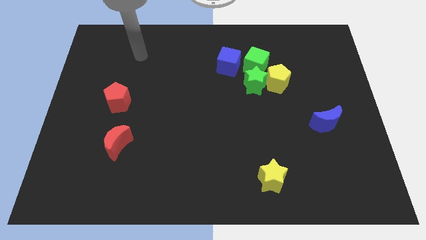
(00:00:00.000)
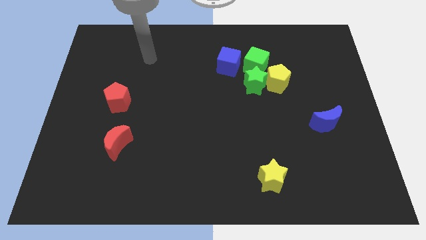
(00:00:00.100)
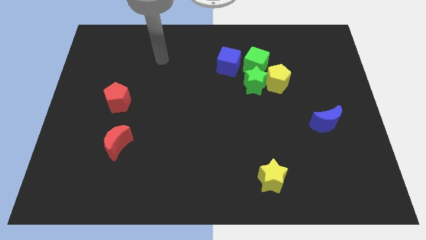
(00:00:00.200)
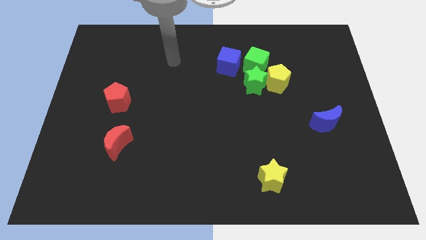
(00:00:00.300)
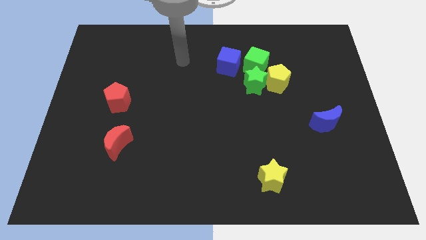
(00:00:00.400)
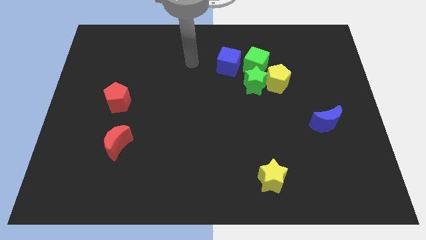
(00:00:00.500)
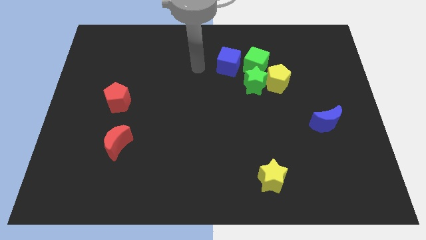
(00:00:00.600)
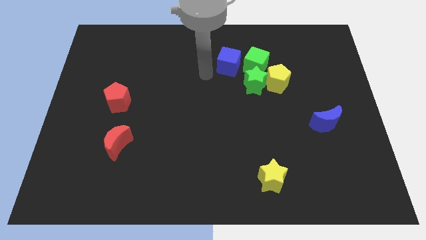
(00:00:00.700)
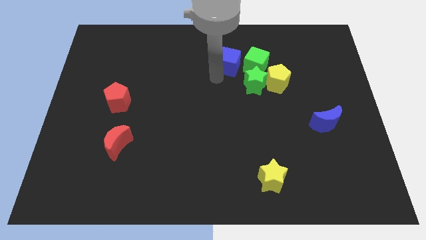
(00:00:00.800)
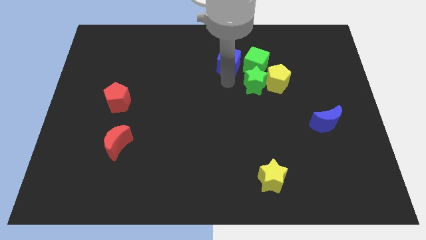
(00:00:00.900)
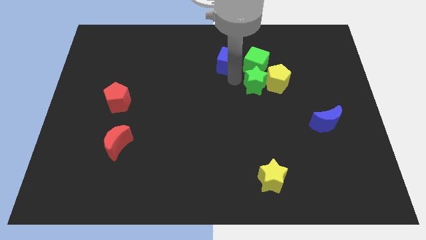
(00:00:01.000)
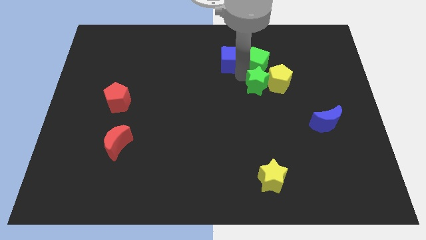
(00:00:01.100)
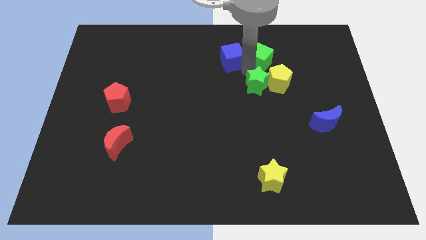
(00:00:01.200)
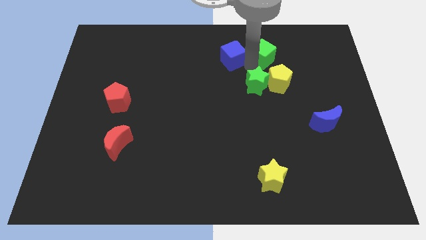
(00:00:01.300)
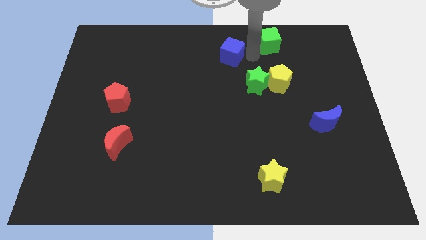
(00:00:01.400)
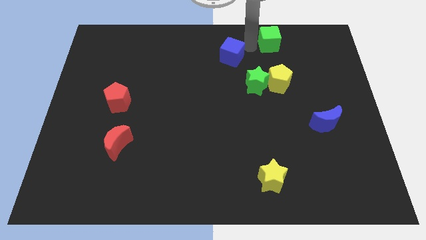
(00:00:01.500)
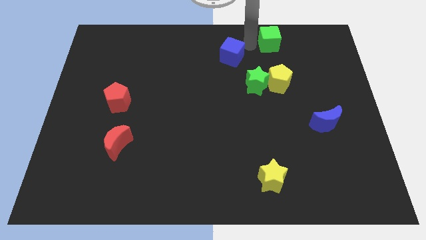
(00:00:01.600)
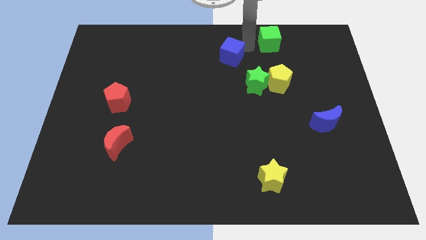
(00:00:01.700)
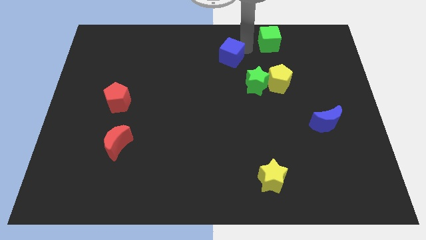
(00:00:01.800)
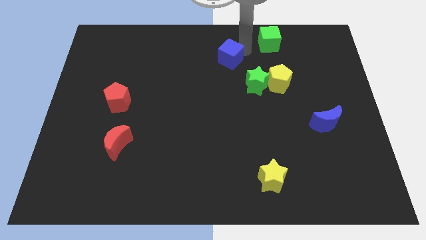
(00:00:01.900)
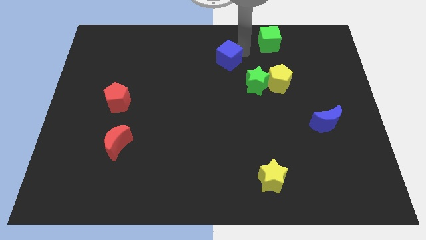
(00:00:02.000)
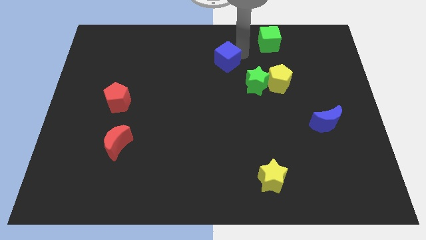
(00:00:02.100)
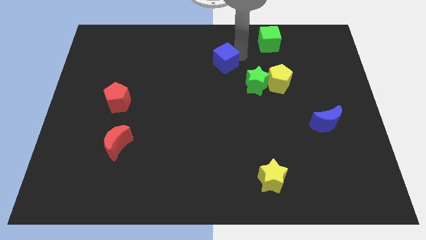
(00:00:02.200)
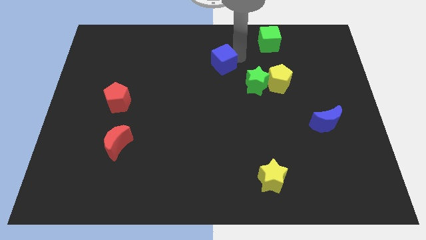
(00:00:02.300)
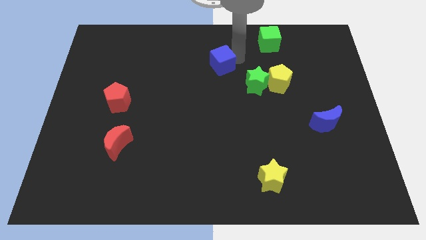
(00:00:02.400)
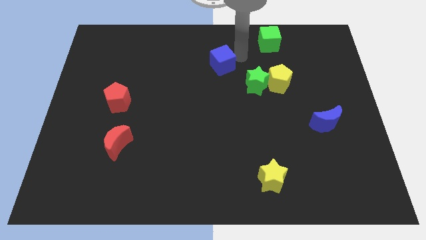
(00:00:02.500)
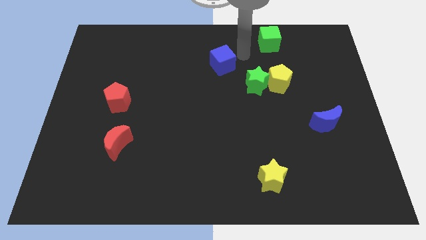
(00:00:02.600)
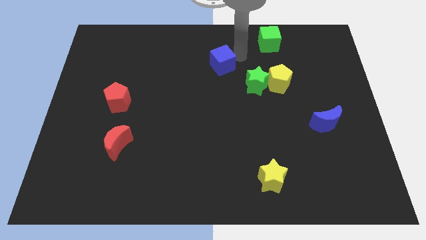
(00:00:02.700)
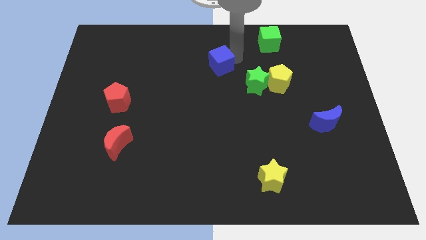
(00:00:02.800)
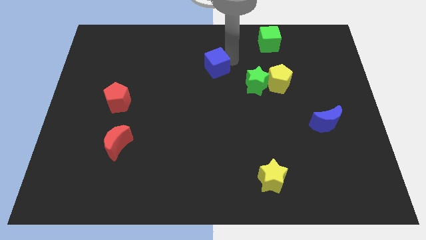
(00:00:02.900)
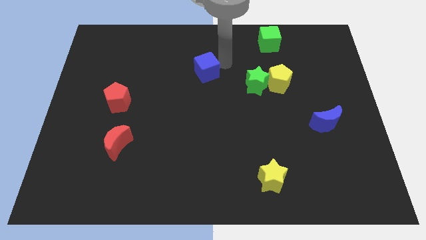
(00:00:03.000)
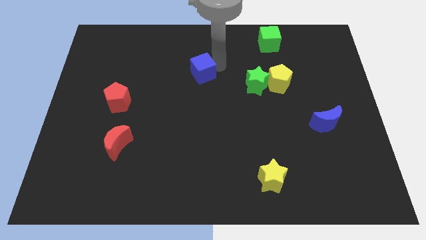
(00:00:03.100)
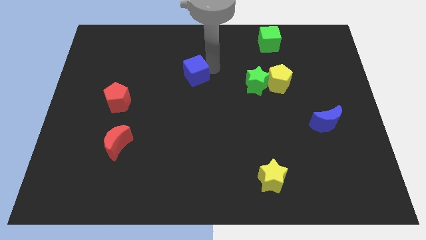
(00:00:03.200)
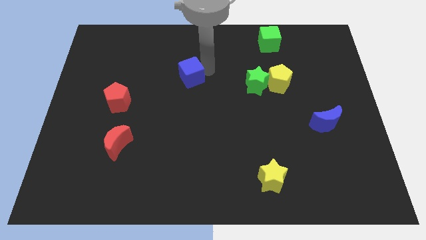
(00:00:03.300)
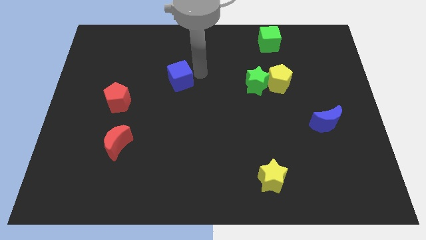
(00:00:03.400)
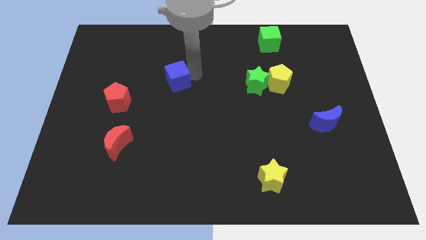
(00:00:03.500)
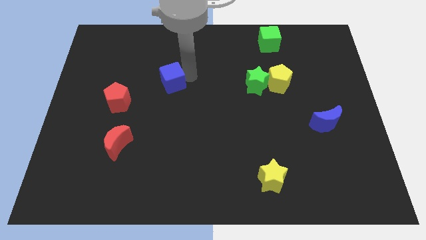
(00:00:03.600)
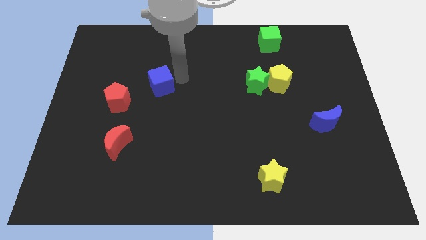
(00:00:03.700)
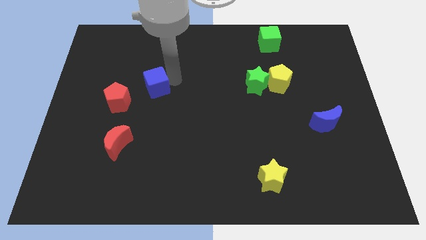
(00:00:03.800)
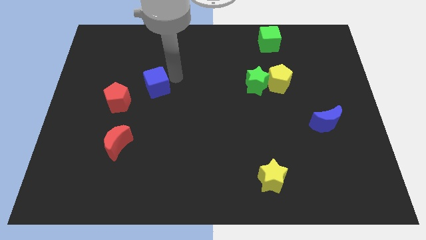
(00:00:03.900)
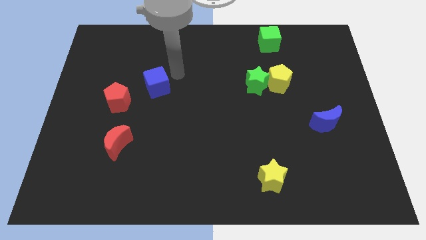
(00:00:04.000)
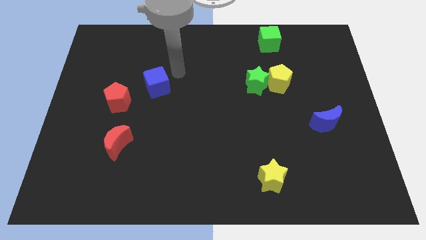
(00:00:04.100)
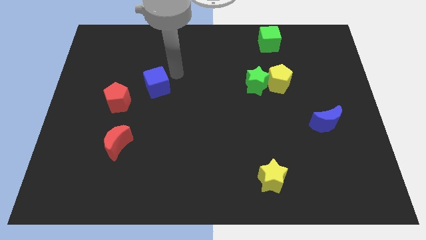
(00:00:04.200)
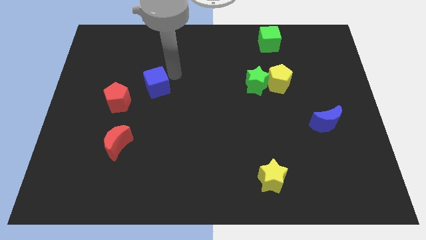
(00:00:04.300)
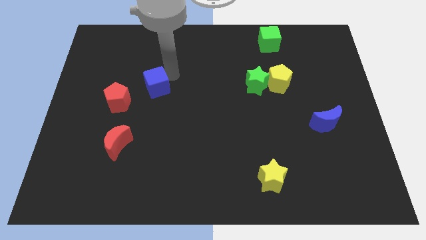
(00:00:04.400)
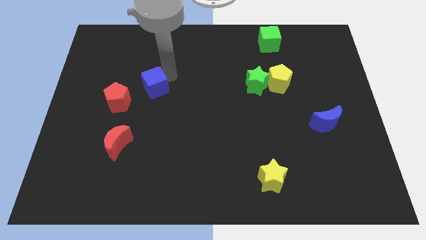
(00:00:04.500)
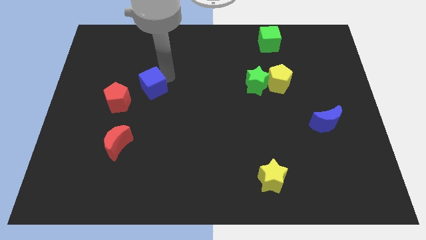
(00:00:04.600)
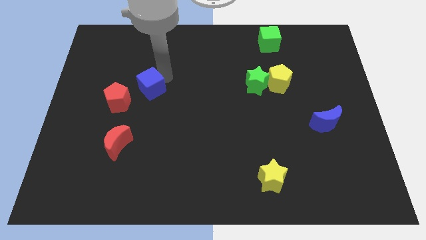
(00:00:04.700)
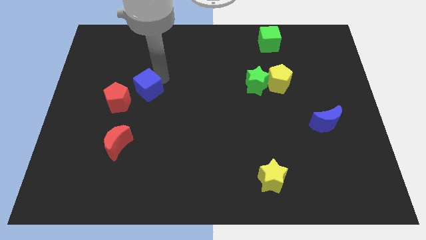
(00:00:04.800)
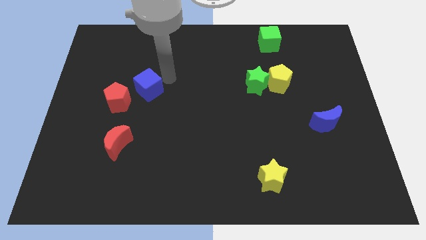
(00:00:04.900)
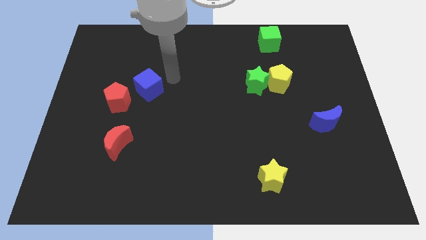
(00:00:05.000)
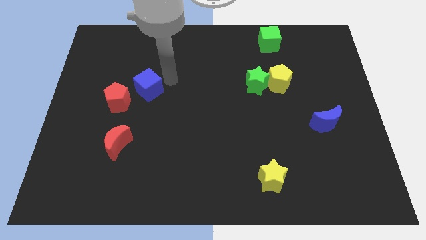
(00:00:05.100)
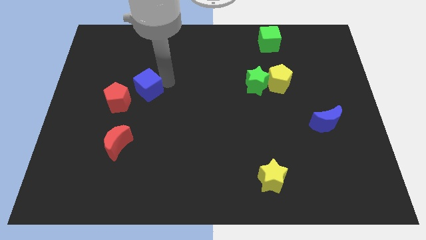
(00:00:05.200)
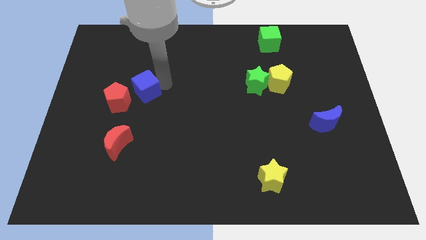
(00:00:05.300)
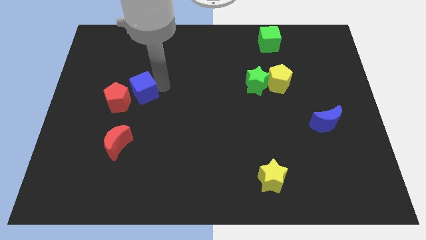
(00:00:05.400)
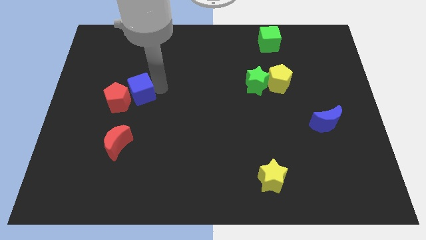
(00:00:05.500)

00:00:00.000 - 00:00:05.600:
push the blue cube towards the red pentagon

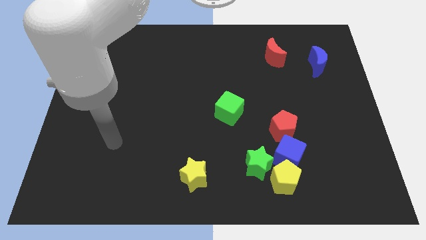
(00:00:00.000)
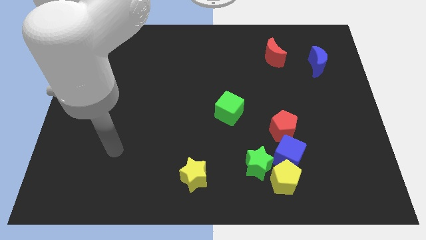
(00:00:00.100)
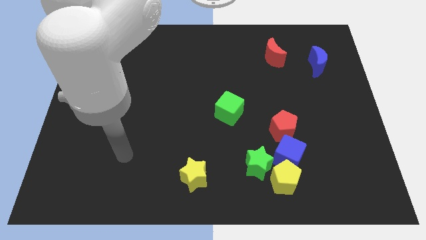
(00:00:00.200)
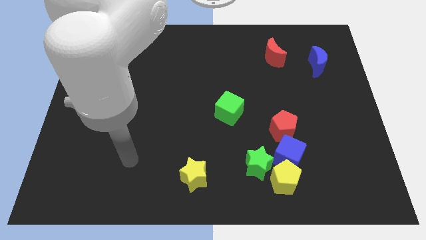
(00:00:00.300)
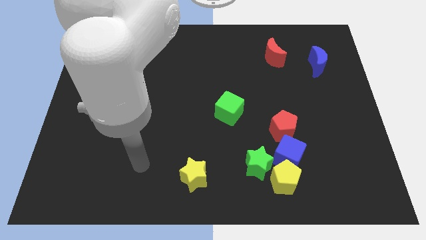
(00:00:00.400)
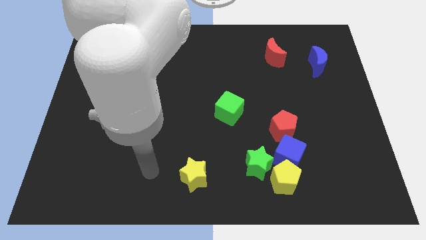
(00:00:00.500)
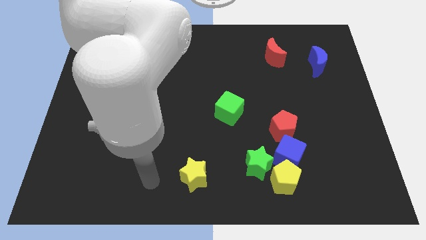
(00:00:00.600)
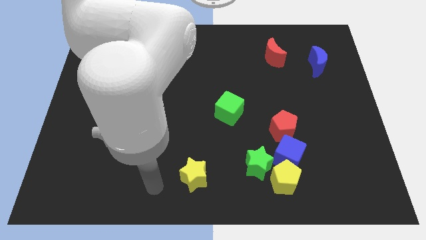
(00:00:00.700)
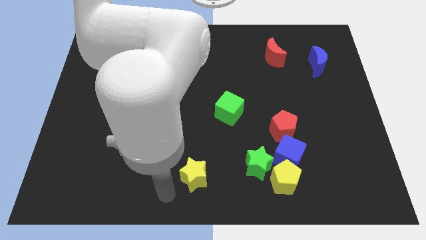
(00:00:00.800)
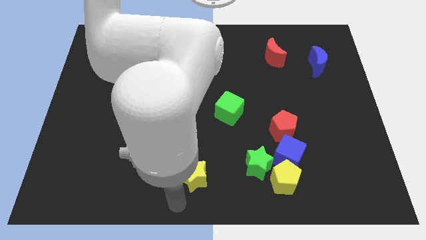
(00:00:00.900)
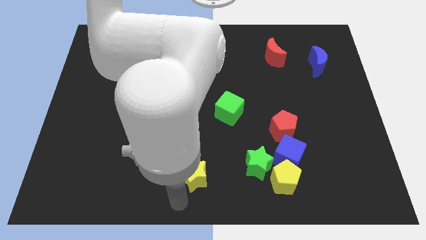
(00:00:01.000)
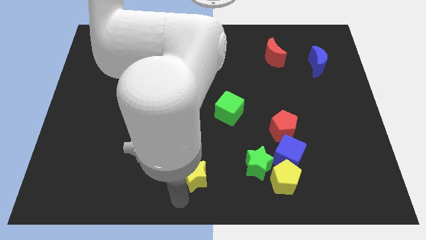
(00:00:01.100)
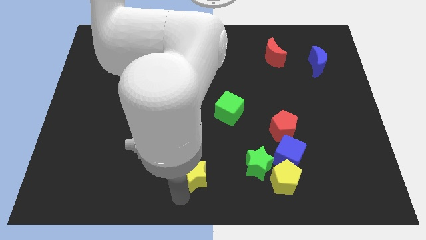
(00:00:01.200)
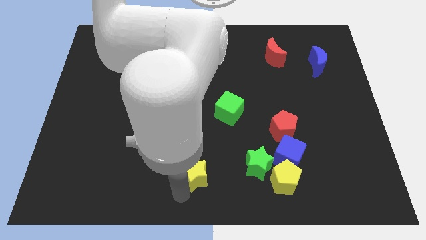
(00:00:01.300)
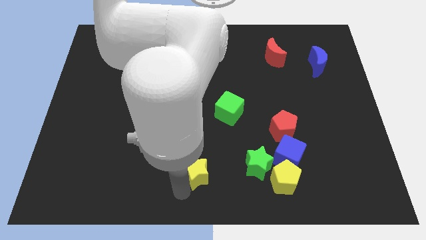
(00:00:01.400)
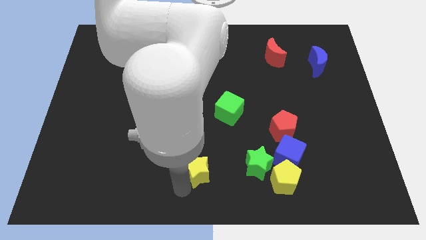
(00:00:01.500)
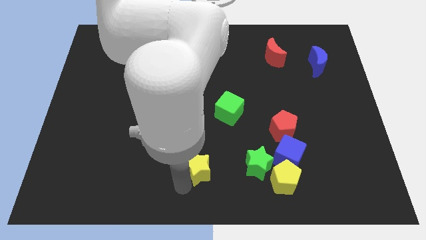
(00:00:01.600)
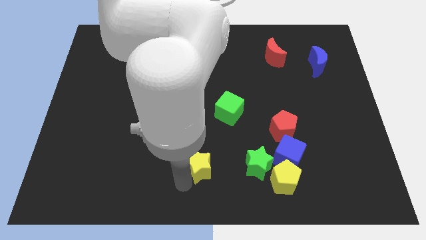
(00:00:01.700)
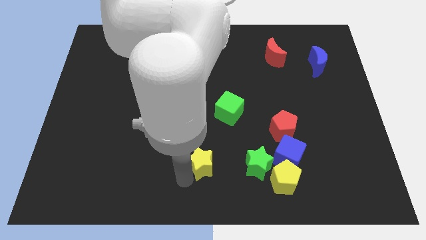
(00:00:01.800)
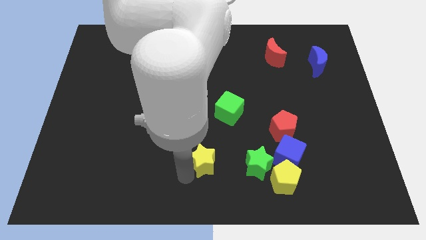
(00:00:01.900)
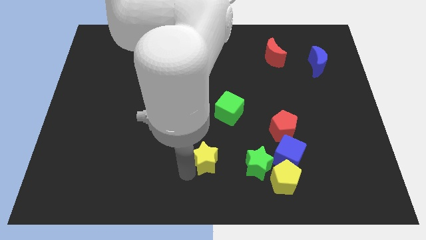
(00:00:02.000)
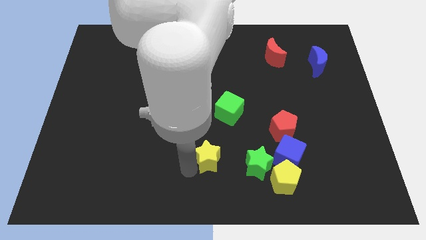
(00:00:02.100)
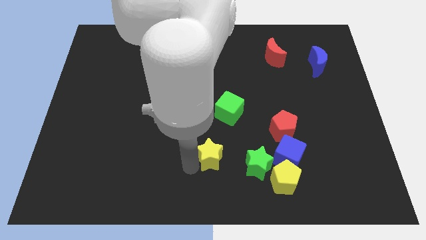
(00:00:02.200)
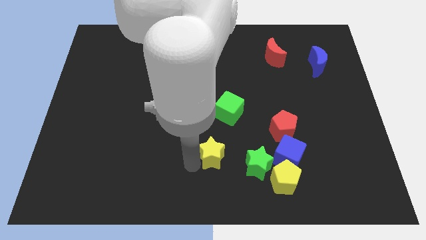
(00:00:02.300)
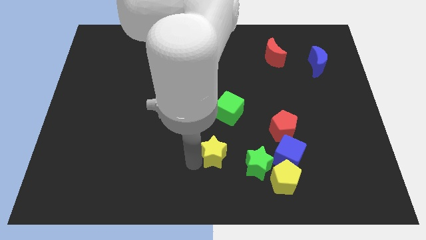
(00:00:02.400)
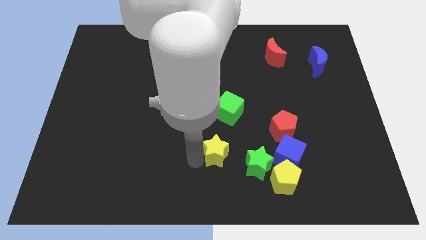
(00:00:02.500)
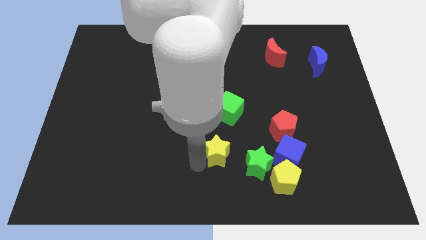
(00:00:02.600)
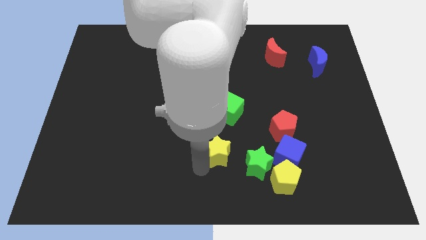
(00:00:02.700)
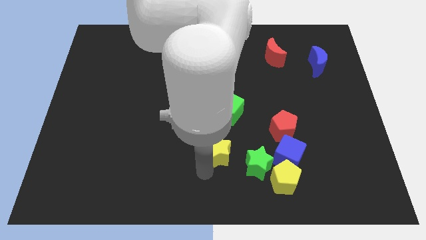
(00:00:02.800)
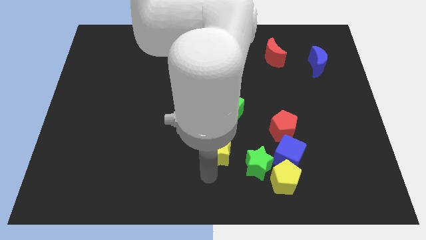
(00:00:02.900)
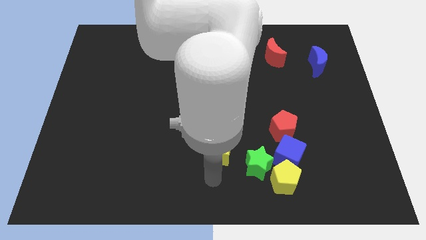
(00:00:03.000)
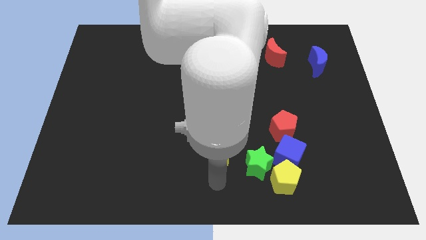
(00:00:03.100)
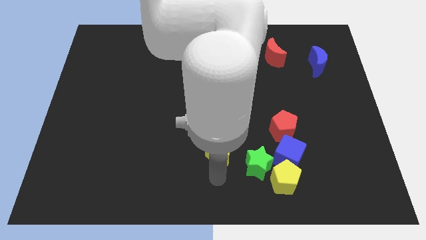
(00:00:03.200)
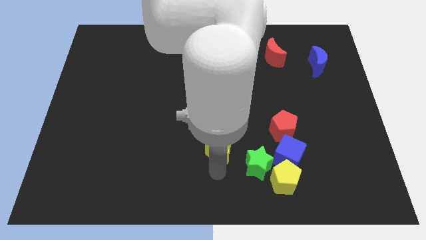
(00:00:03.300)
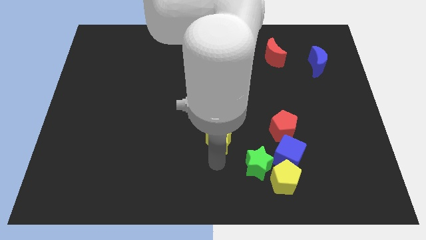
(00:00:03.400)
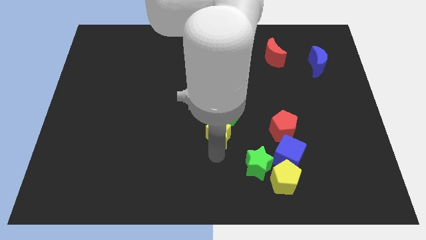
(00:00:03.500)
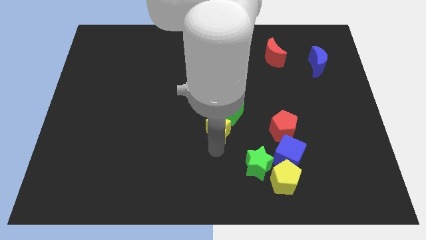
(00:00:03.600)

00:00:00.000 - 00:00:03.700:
put the yellow star towards the green cube
